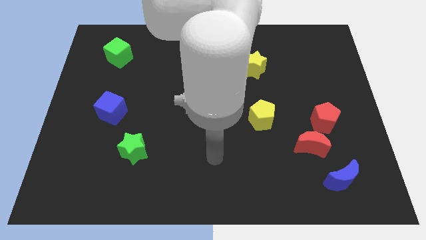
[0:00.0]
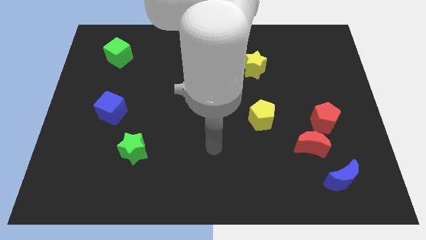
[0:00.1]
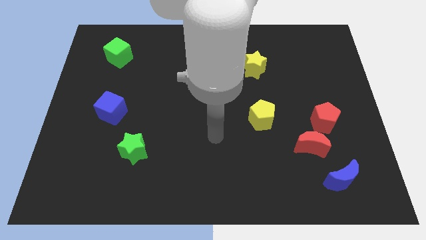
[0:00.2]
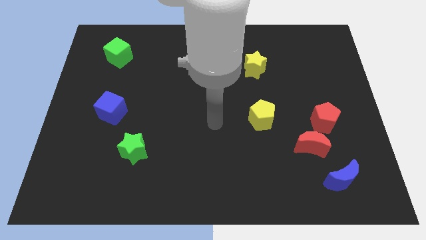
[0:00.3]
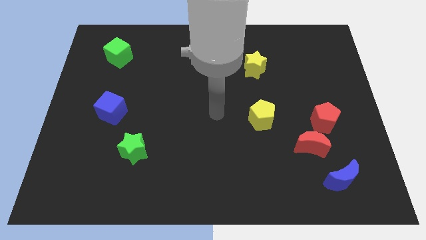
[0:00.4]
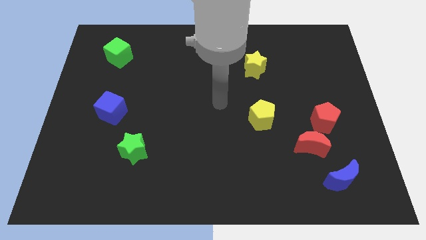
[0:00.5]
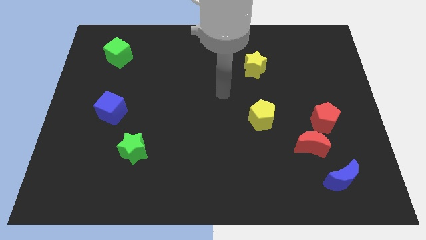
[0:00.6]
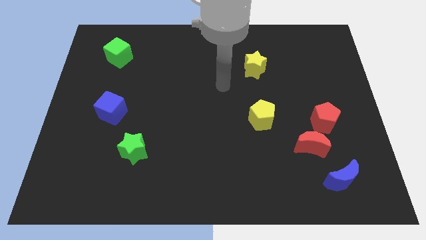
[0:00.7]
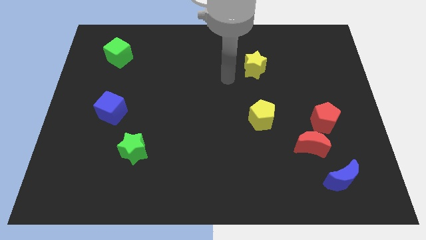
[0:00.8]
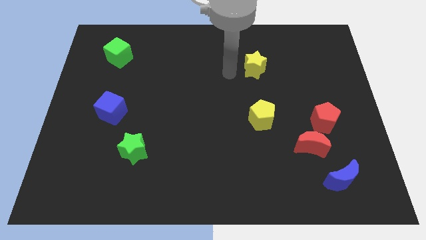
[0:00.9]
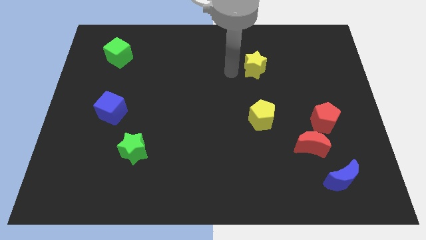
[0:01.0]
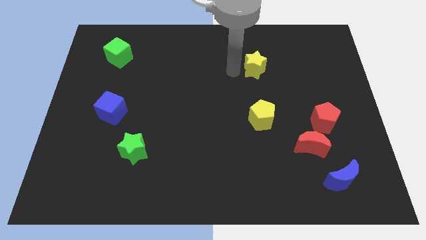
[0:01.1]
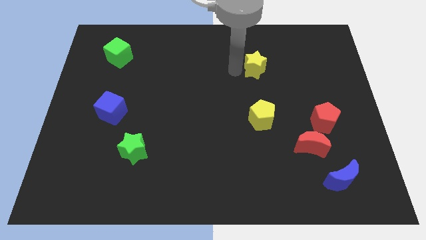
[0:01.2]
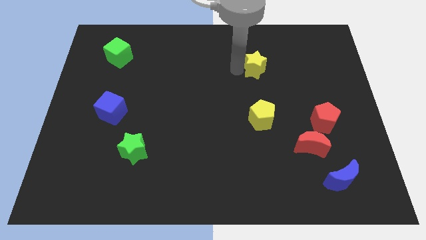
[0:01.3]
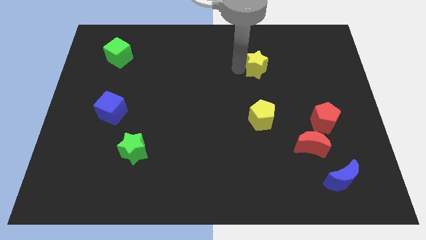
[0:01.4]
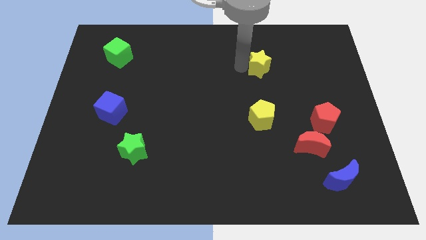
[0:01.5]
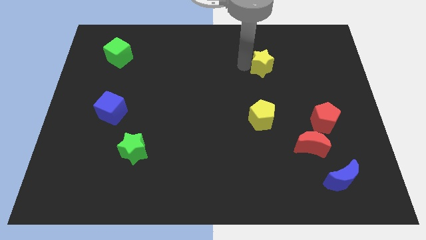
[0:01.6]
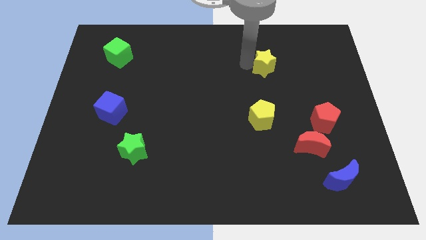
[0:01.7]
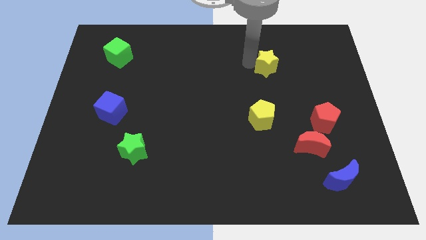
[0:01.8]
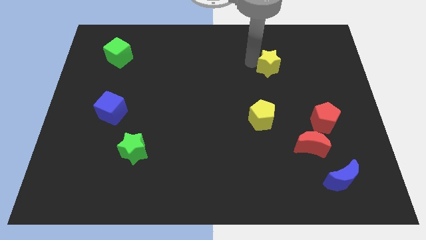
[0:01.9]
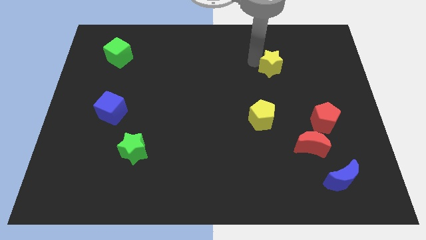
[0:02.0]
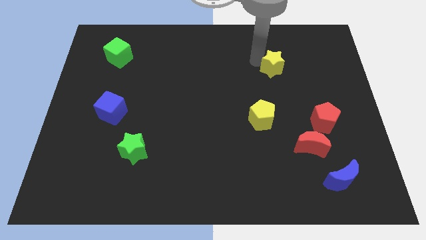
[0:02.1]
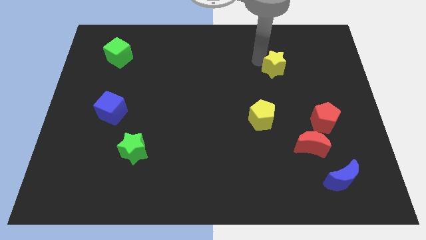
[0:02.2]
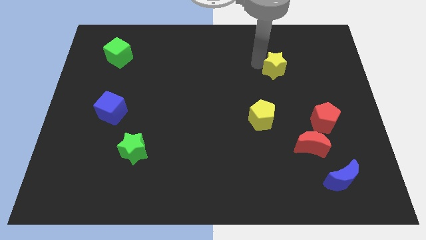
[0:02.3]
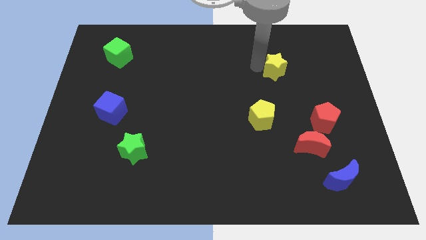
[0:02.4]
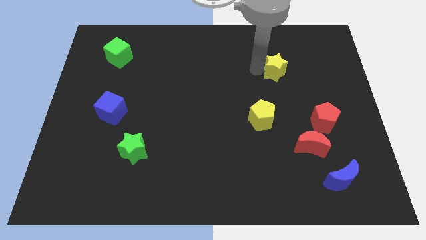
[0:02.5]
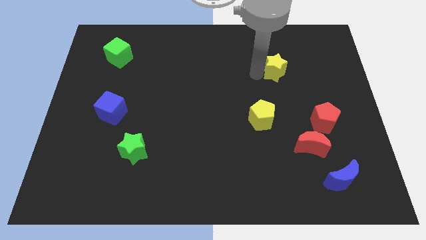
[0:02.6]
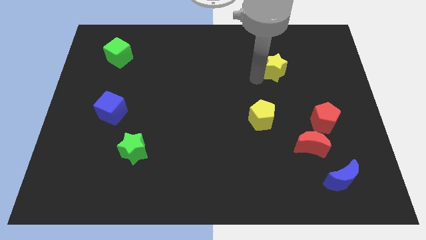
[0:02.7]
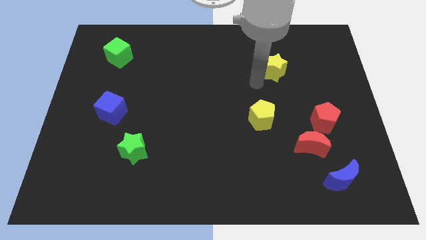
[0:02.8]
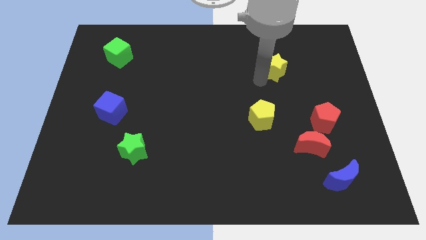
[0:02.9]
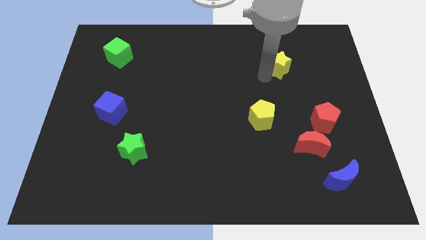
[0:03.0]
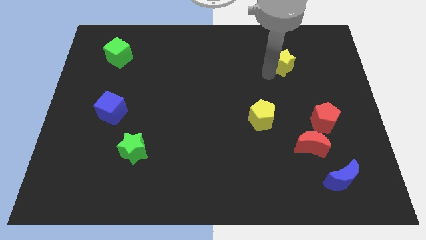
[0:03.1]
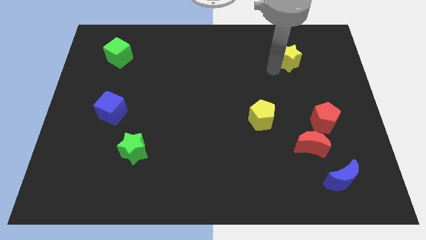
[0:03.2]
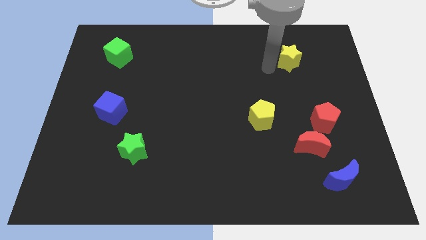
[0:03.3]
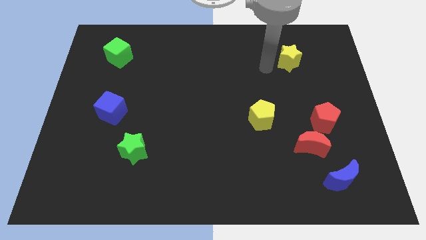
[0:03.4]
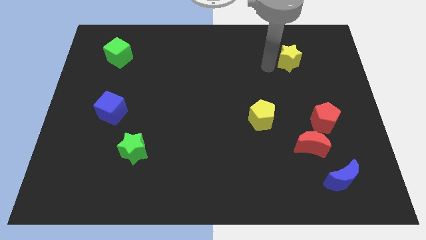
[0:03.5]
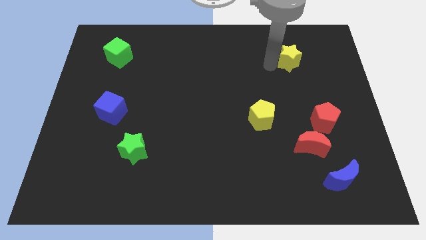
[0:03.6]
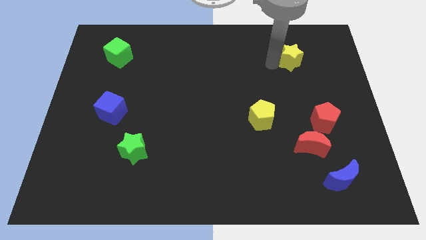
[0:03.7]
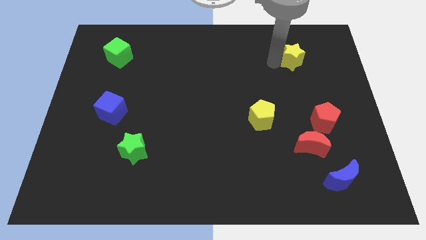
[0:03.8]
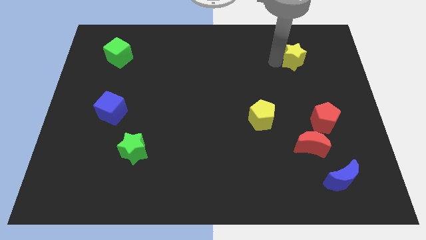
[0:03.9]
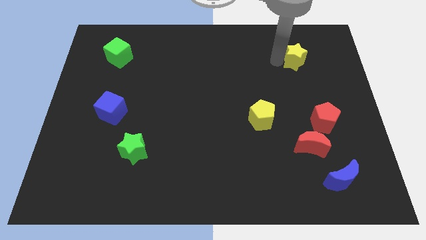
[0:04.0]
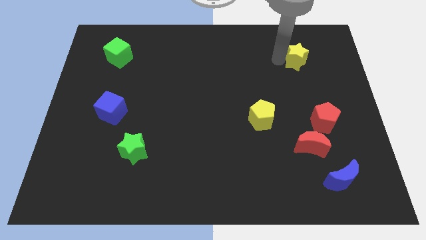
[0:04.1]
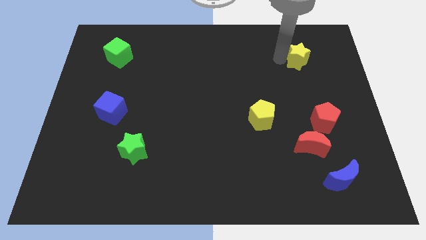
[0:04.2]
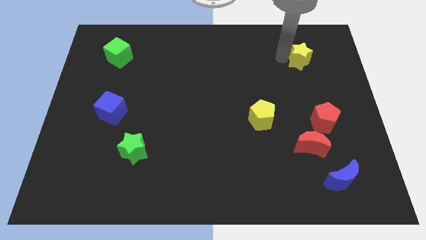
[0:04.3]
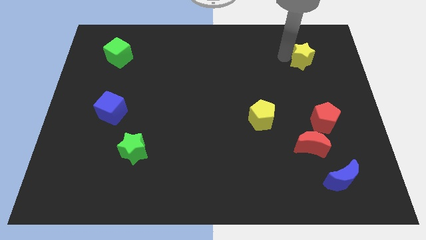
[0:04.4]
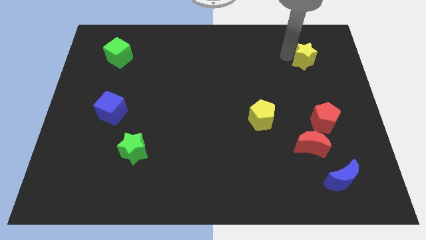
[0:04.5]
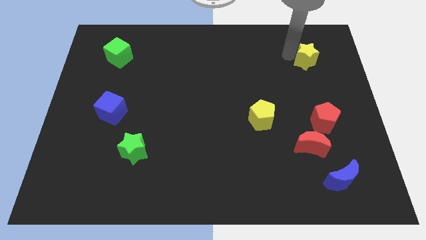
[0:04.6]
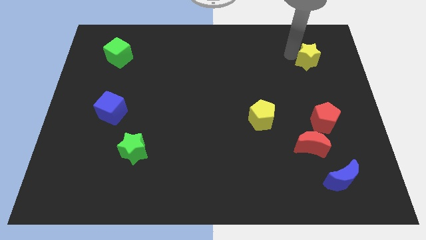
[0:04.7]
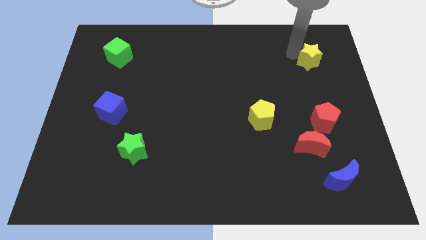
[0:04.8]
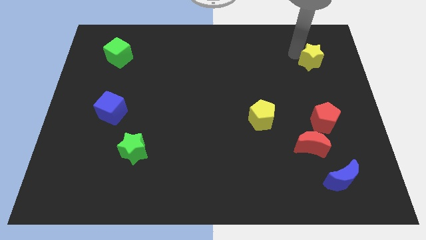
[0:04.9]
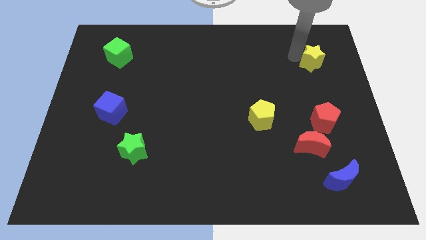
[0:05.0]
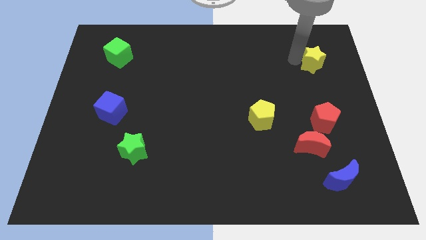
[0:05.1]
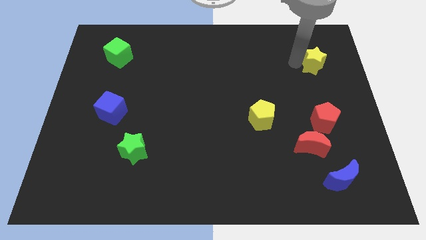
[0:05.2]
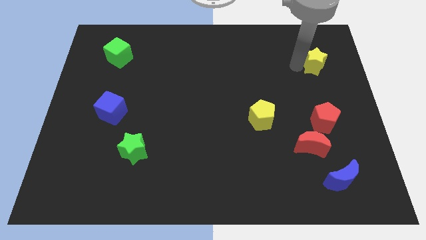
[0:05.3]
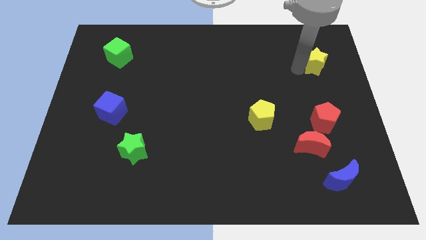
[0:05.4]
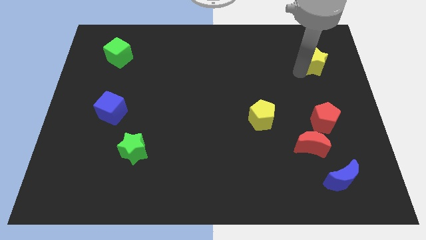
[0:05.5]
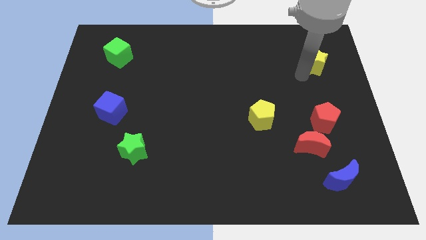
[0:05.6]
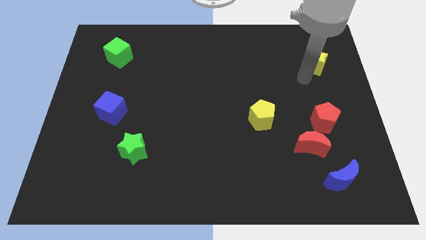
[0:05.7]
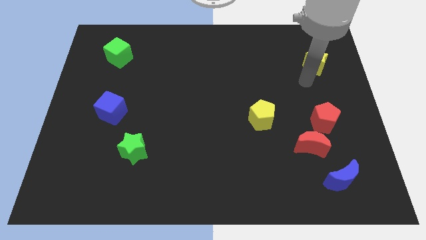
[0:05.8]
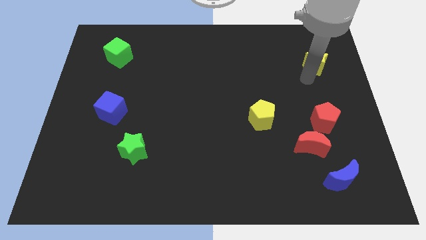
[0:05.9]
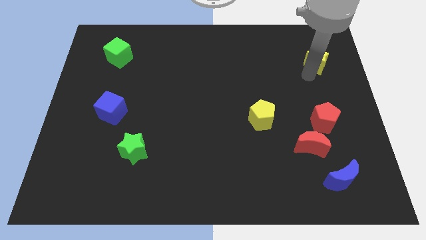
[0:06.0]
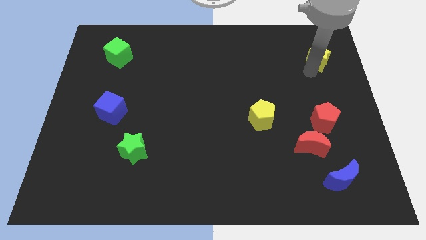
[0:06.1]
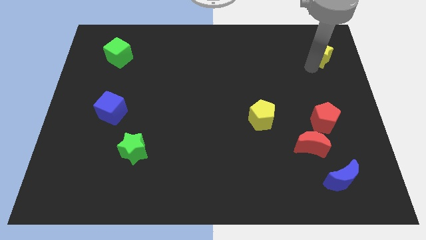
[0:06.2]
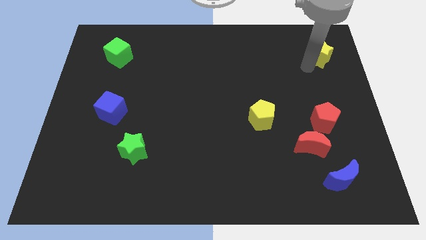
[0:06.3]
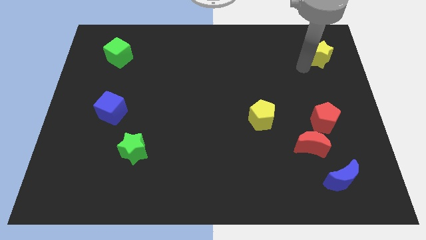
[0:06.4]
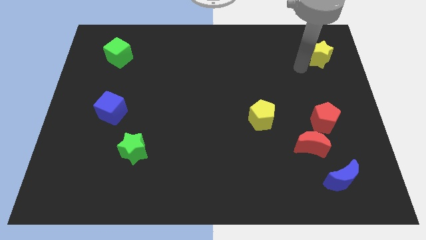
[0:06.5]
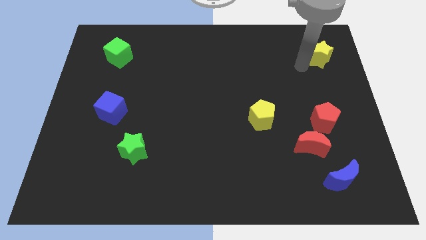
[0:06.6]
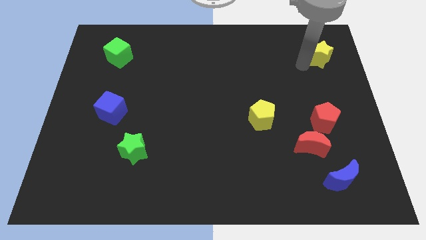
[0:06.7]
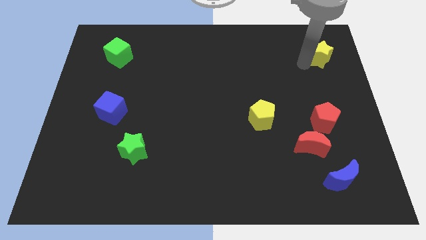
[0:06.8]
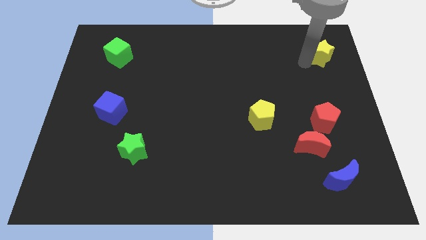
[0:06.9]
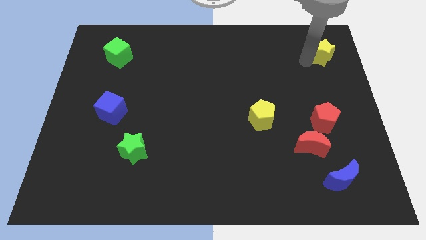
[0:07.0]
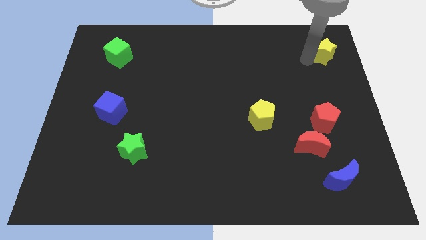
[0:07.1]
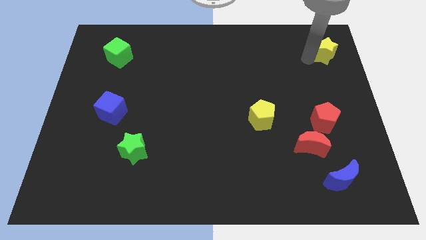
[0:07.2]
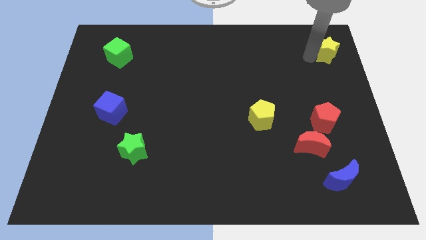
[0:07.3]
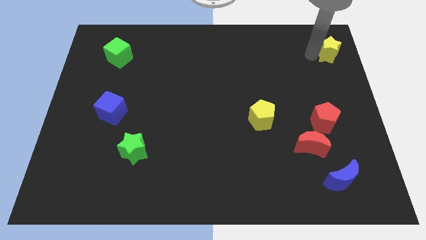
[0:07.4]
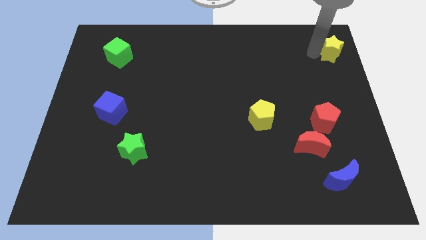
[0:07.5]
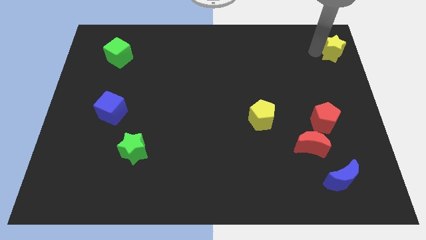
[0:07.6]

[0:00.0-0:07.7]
move the yellow star to the top right
